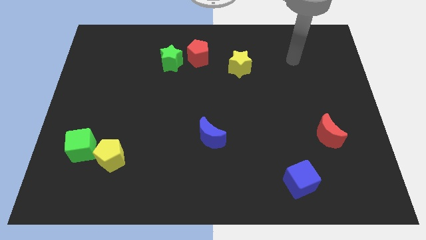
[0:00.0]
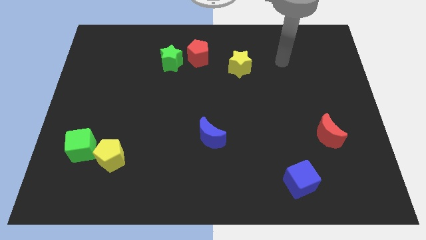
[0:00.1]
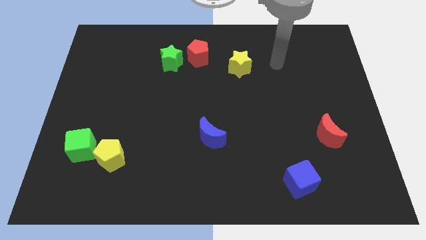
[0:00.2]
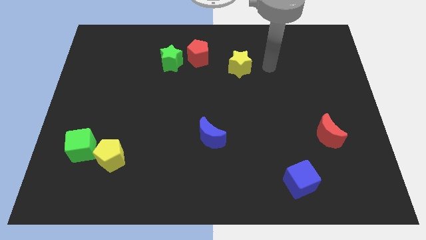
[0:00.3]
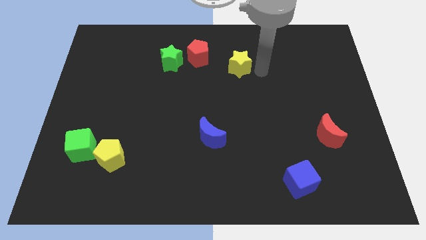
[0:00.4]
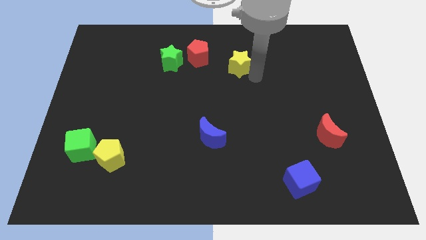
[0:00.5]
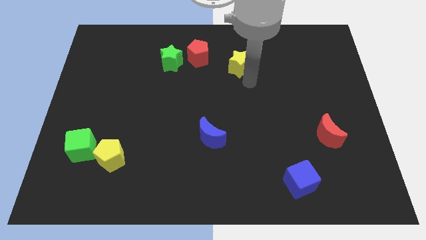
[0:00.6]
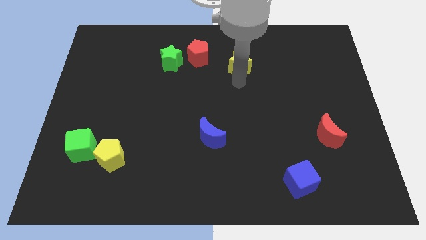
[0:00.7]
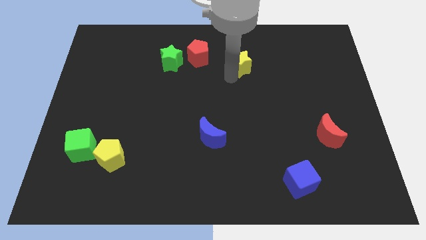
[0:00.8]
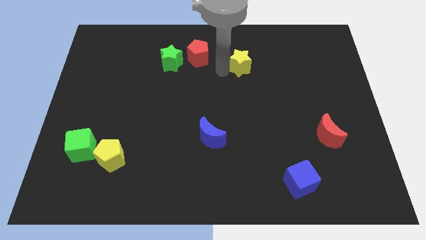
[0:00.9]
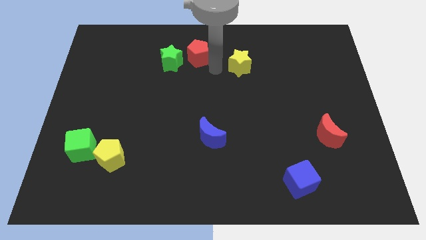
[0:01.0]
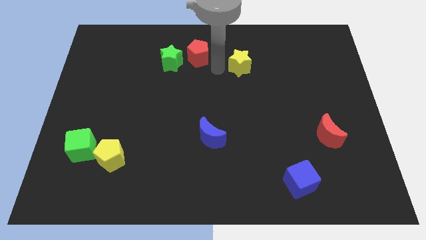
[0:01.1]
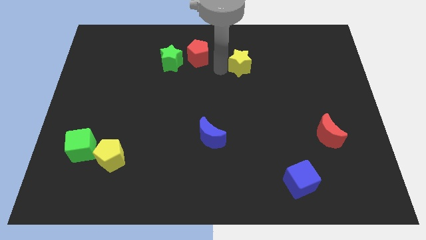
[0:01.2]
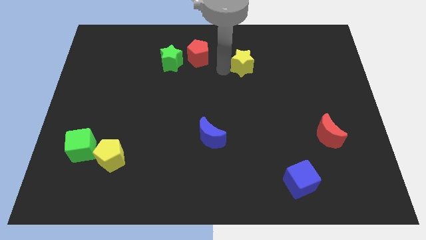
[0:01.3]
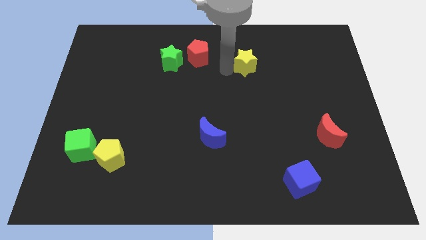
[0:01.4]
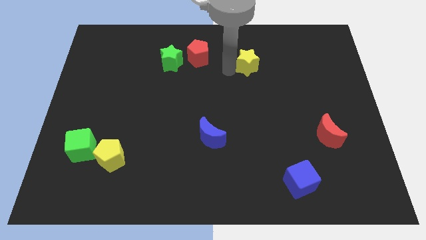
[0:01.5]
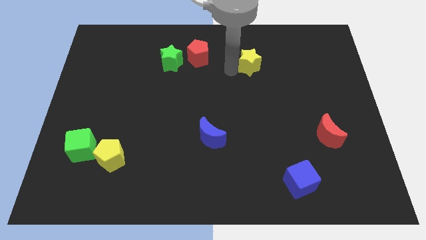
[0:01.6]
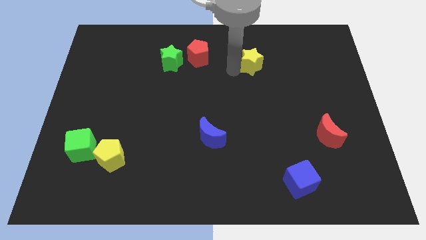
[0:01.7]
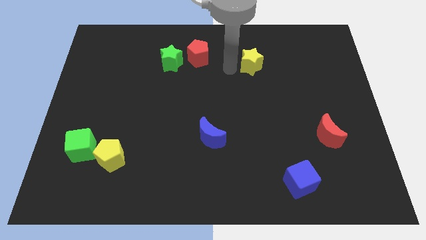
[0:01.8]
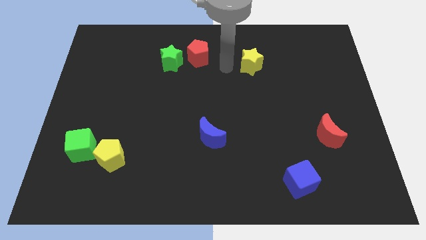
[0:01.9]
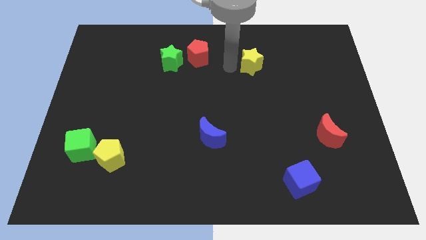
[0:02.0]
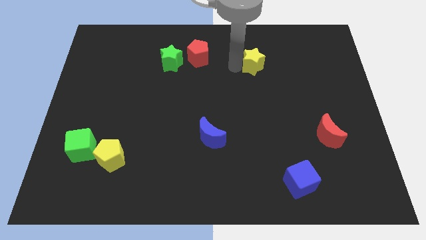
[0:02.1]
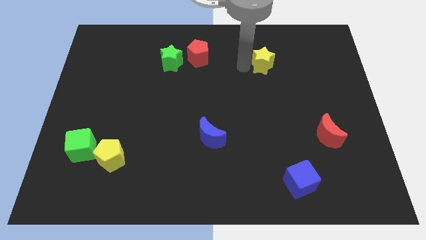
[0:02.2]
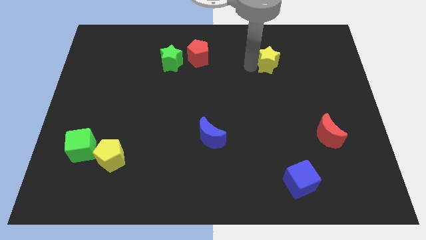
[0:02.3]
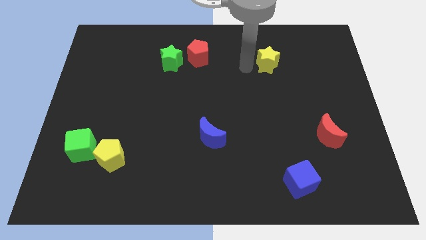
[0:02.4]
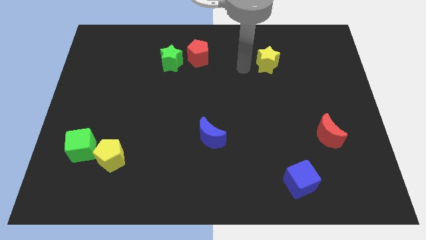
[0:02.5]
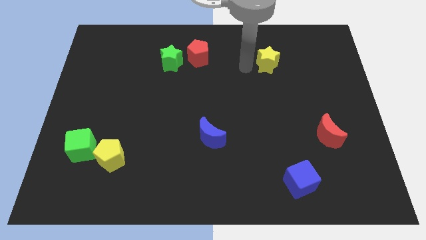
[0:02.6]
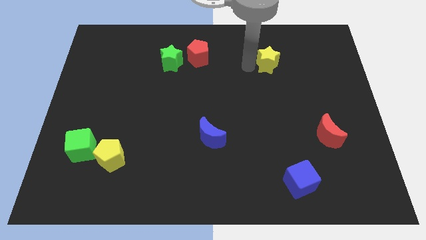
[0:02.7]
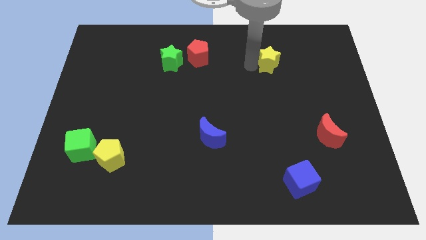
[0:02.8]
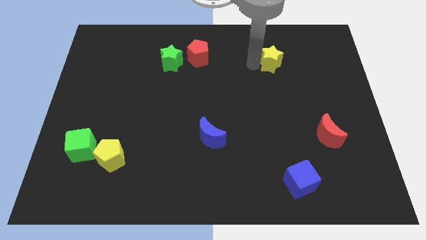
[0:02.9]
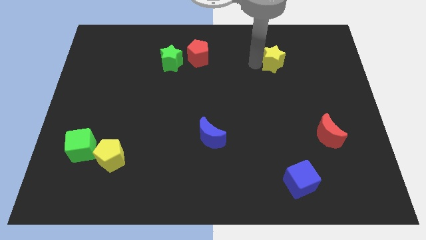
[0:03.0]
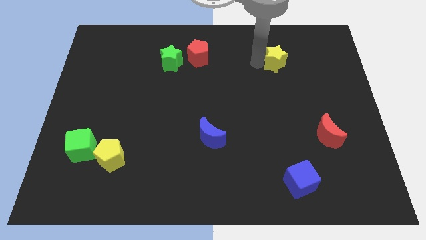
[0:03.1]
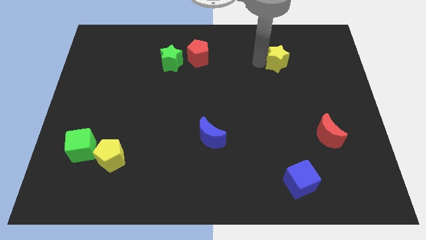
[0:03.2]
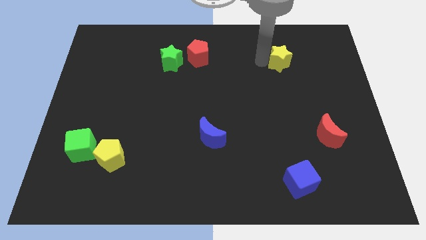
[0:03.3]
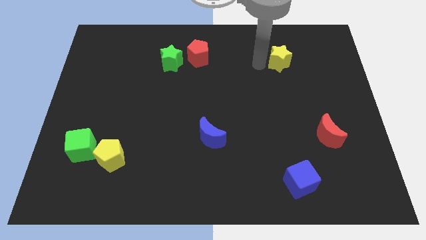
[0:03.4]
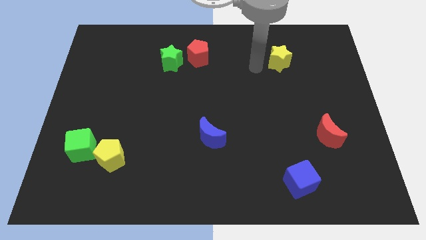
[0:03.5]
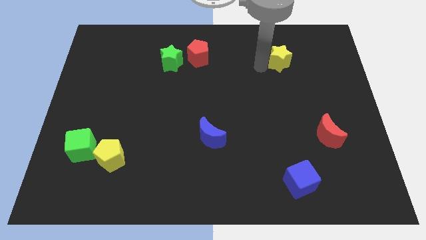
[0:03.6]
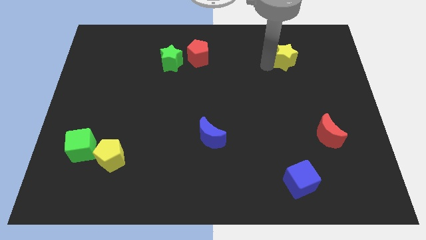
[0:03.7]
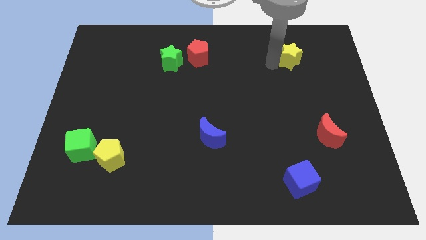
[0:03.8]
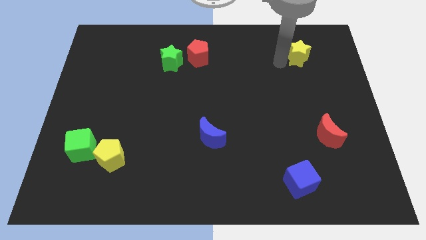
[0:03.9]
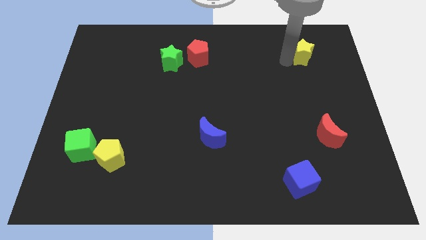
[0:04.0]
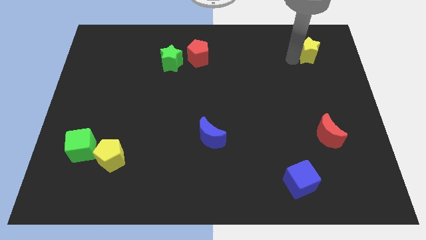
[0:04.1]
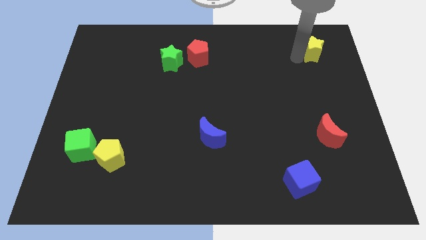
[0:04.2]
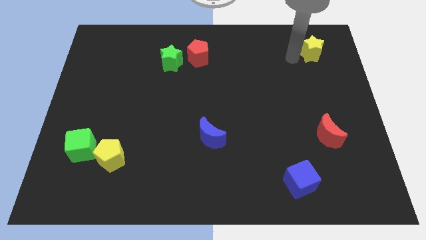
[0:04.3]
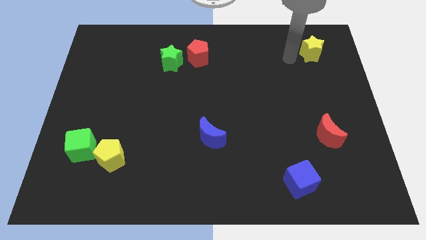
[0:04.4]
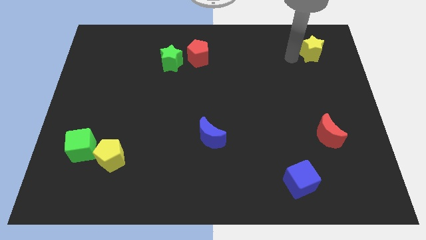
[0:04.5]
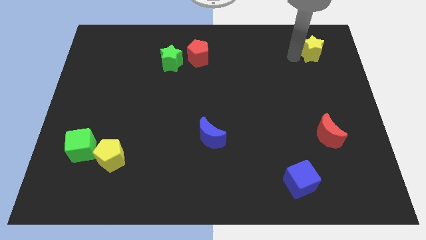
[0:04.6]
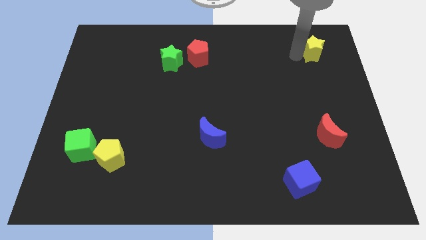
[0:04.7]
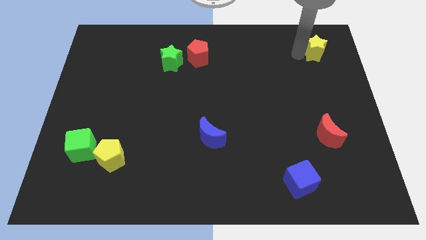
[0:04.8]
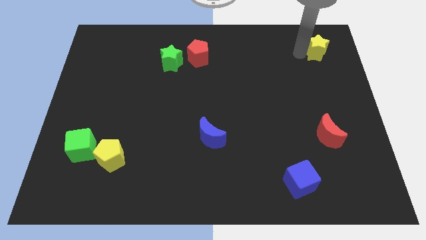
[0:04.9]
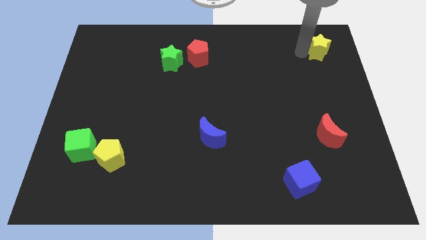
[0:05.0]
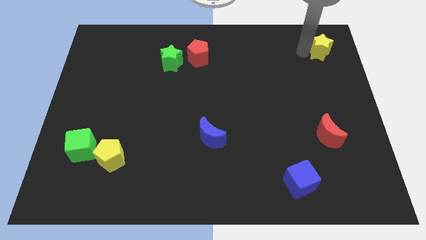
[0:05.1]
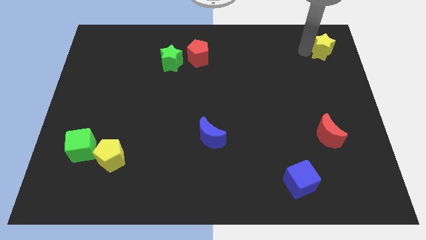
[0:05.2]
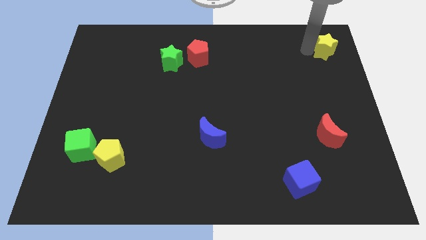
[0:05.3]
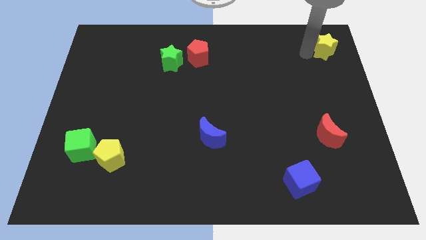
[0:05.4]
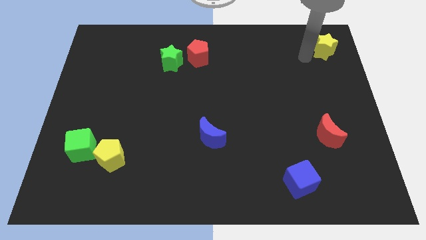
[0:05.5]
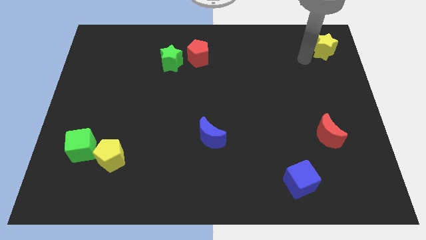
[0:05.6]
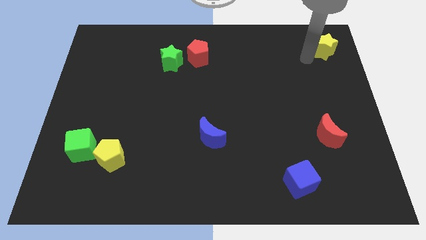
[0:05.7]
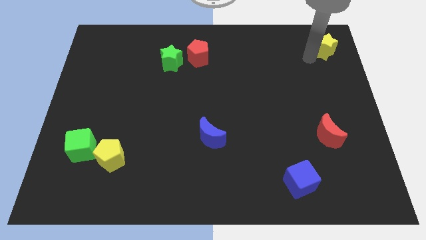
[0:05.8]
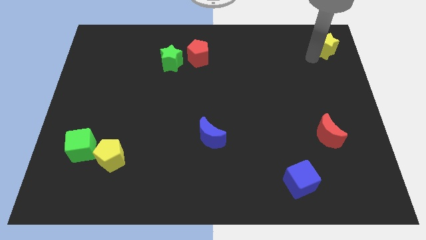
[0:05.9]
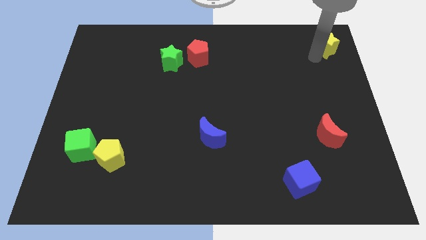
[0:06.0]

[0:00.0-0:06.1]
move the yellow star to the top right

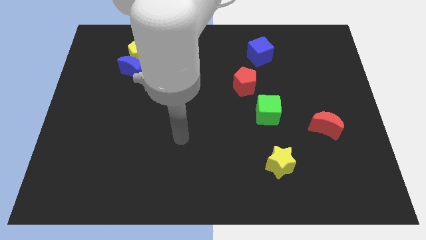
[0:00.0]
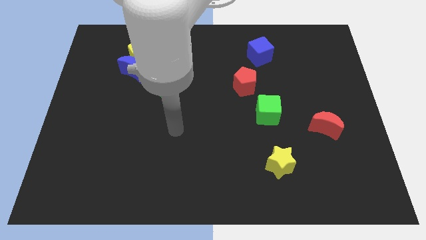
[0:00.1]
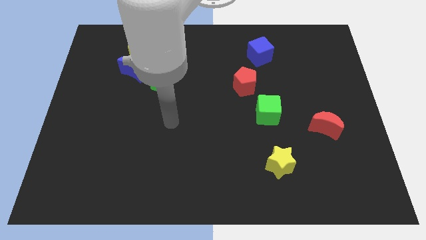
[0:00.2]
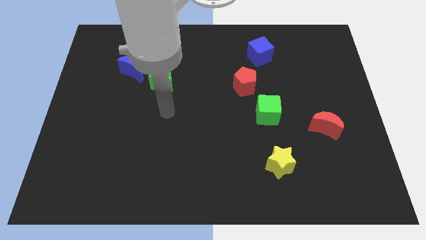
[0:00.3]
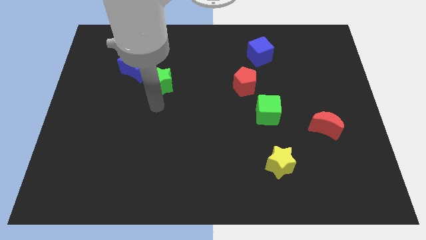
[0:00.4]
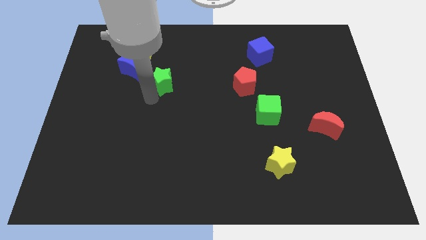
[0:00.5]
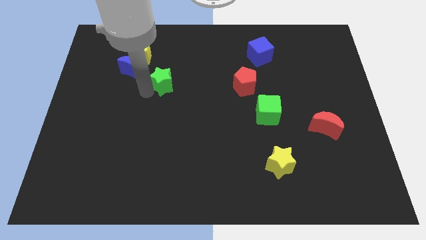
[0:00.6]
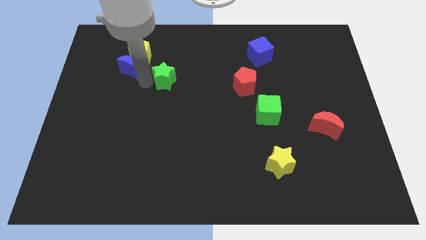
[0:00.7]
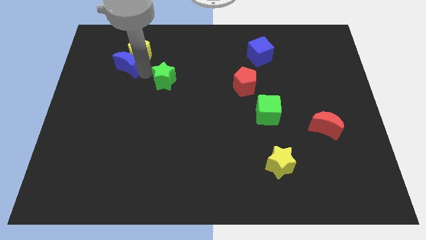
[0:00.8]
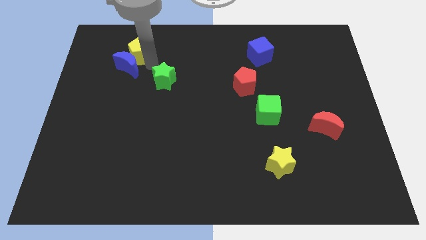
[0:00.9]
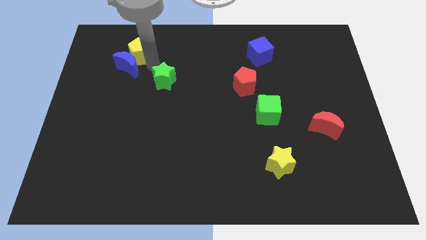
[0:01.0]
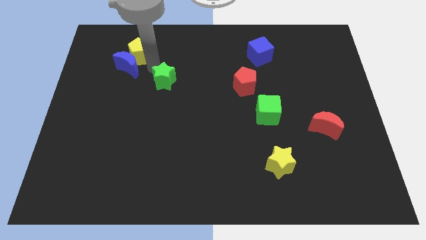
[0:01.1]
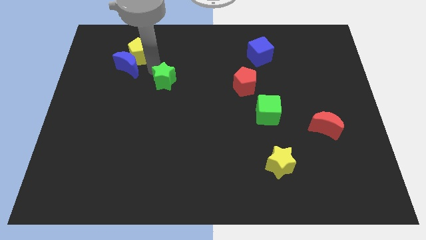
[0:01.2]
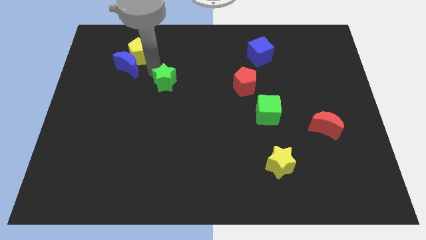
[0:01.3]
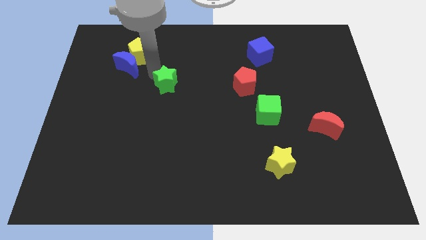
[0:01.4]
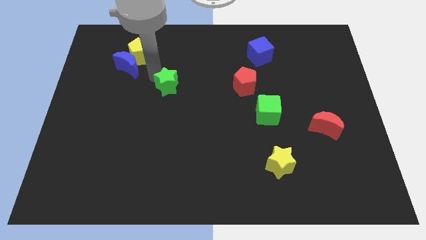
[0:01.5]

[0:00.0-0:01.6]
move the green star to the center of the board
